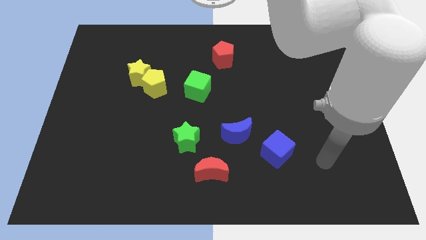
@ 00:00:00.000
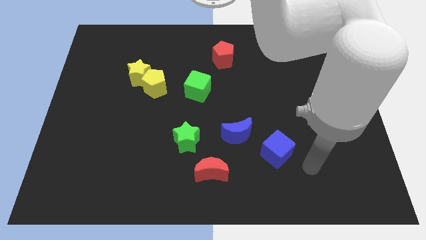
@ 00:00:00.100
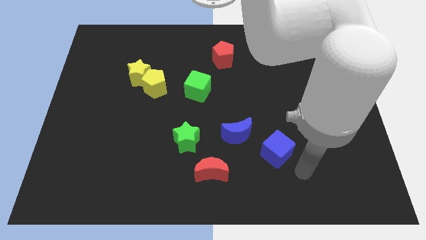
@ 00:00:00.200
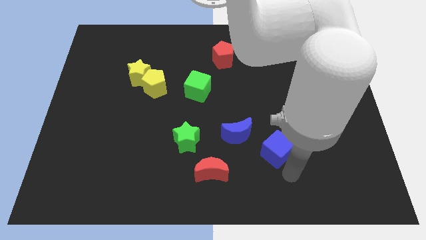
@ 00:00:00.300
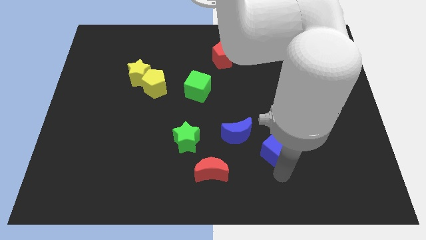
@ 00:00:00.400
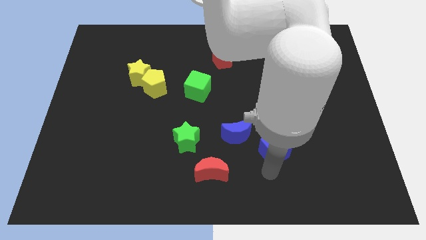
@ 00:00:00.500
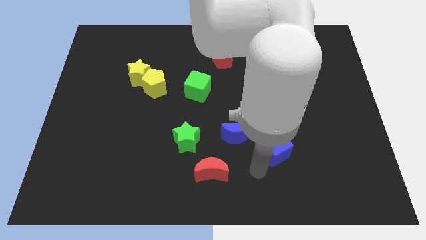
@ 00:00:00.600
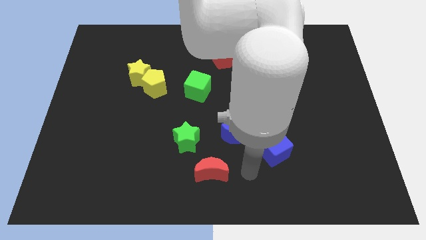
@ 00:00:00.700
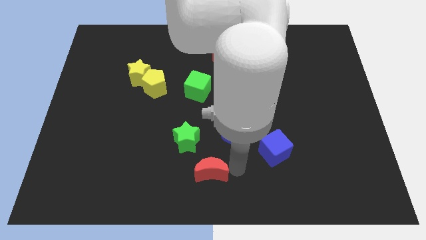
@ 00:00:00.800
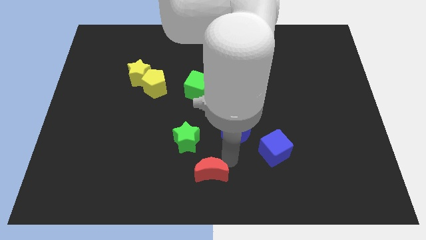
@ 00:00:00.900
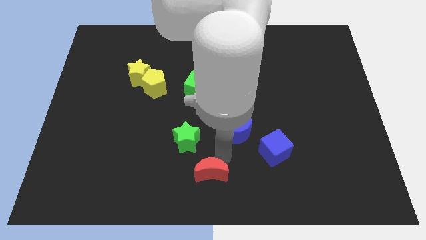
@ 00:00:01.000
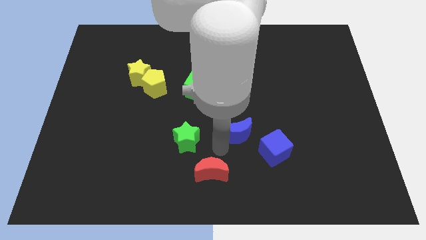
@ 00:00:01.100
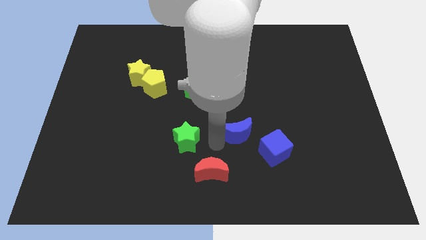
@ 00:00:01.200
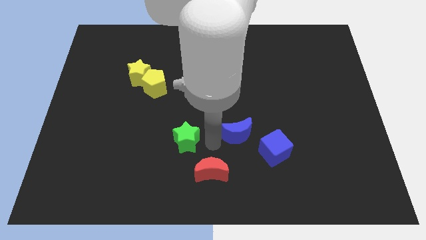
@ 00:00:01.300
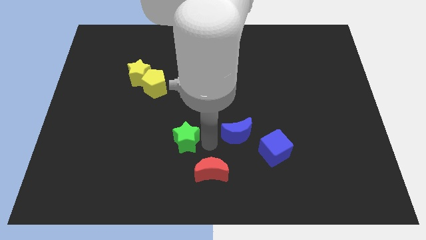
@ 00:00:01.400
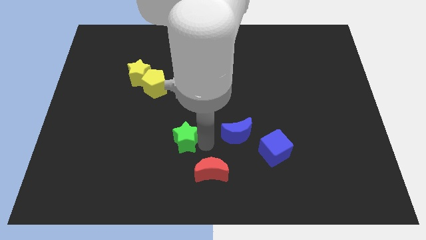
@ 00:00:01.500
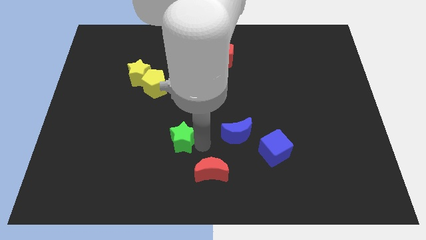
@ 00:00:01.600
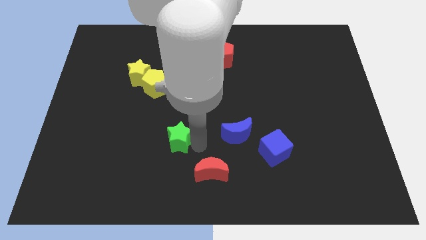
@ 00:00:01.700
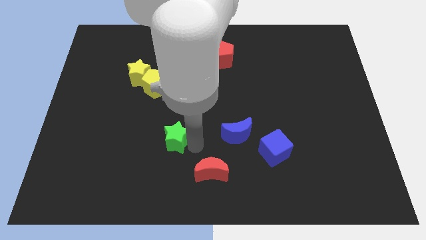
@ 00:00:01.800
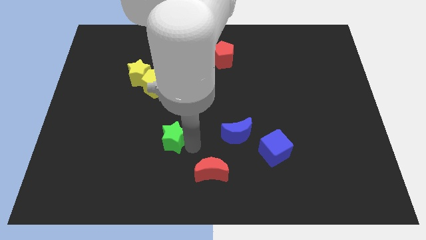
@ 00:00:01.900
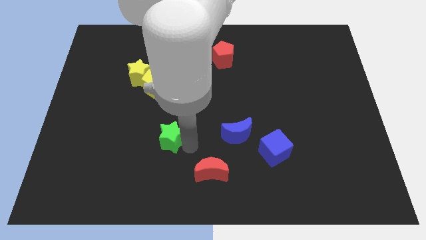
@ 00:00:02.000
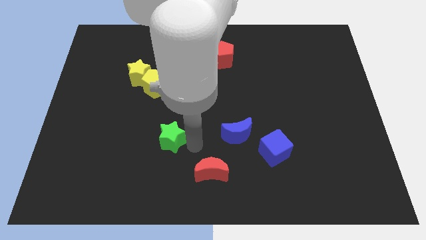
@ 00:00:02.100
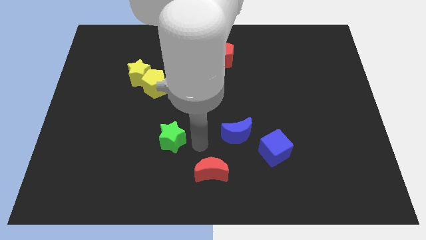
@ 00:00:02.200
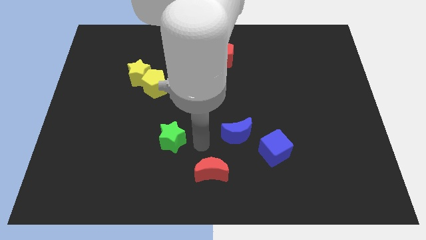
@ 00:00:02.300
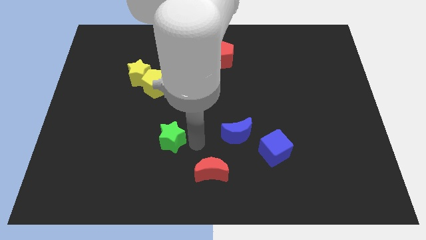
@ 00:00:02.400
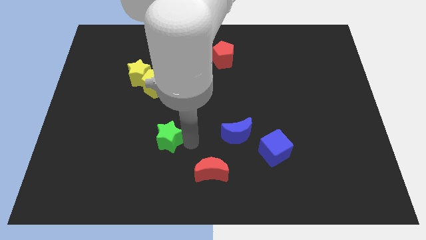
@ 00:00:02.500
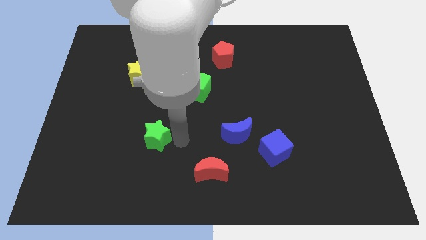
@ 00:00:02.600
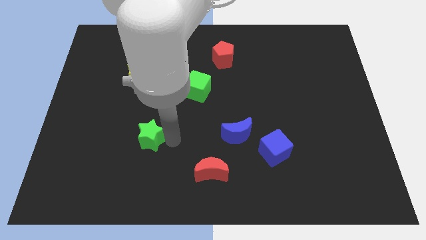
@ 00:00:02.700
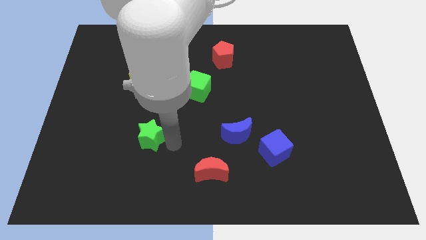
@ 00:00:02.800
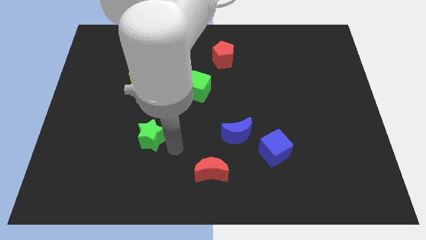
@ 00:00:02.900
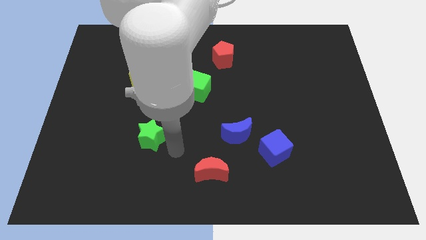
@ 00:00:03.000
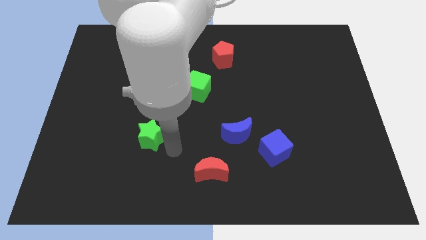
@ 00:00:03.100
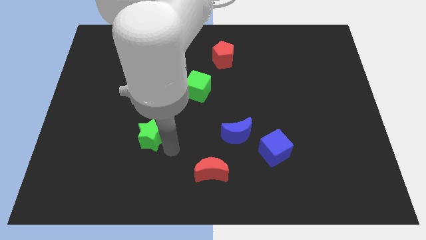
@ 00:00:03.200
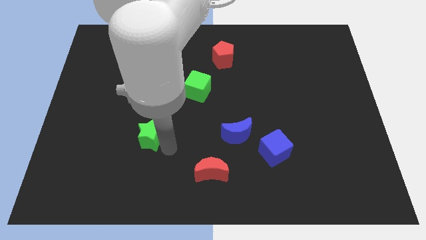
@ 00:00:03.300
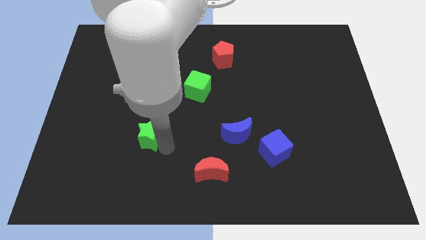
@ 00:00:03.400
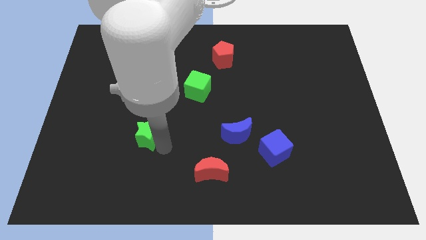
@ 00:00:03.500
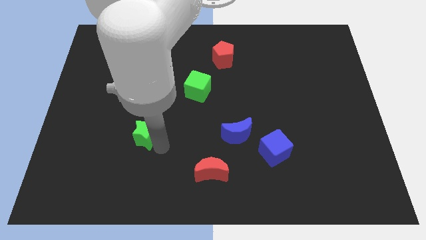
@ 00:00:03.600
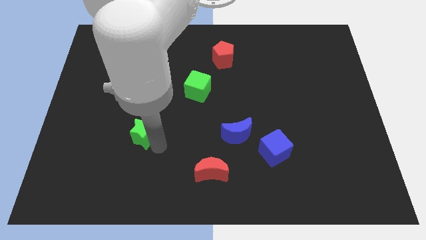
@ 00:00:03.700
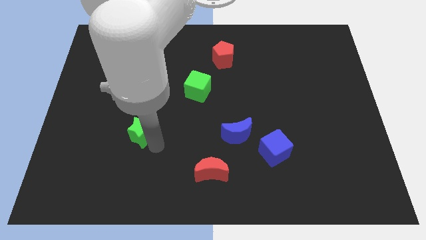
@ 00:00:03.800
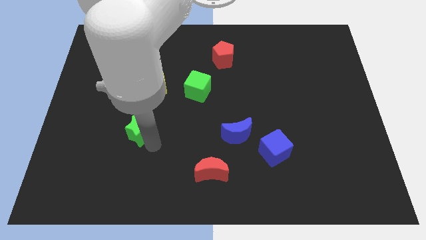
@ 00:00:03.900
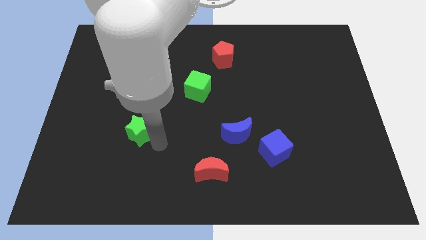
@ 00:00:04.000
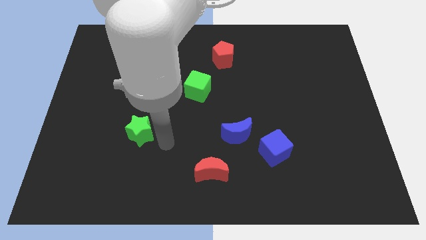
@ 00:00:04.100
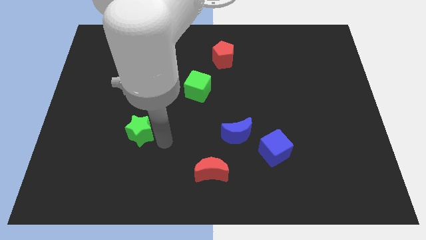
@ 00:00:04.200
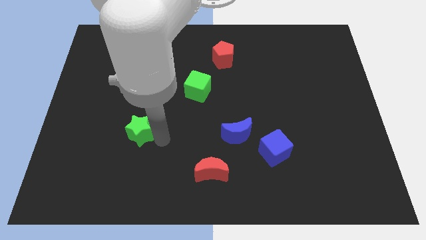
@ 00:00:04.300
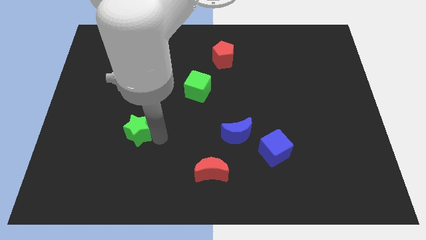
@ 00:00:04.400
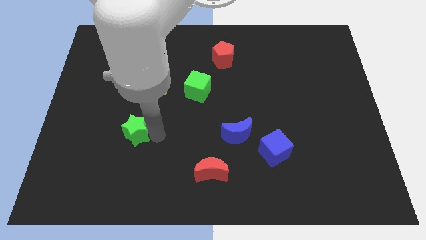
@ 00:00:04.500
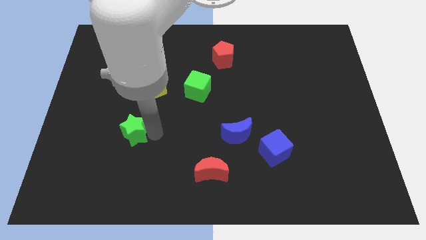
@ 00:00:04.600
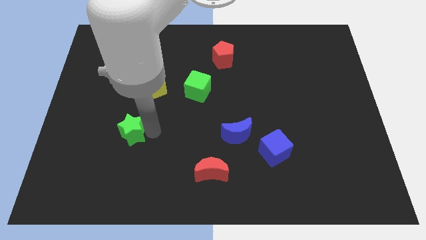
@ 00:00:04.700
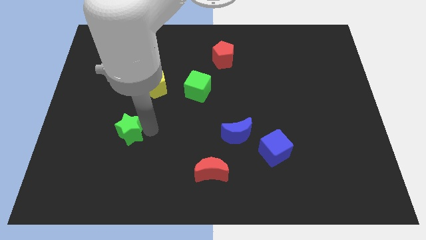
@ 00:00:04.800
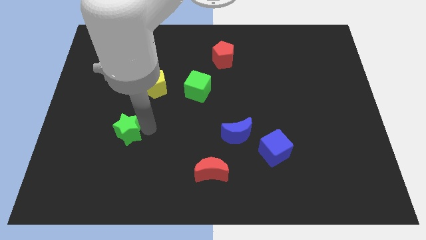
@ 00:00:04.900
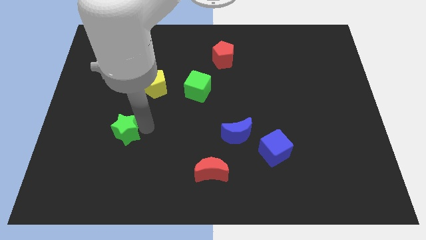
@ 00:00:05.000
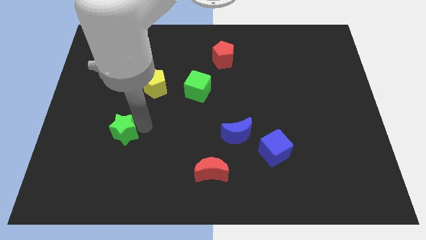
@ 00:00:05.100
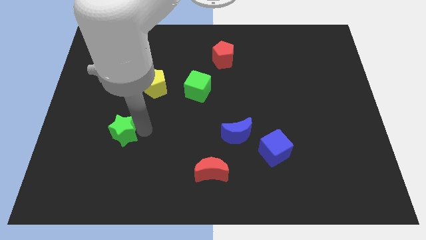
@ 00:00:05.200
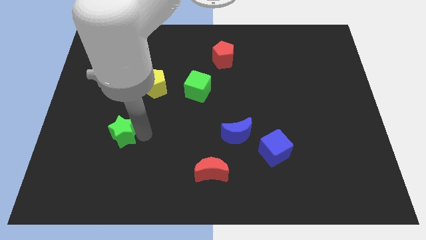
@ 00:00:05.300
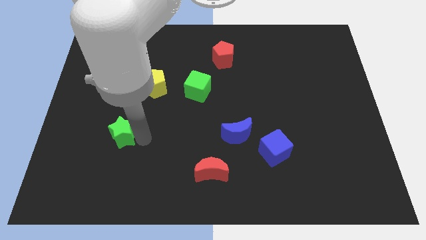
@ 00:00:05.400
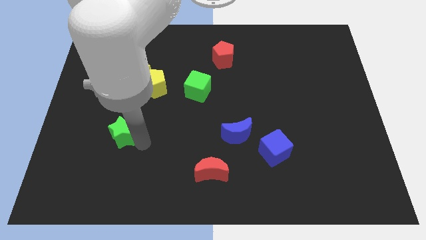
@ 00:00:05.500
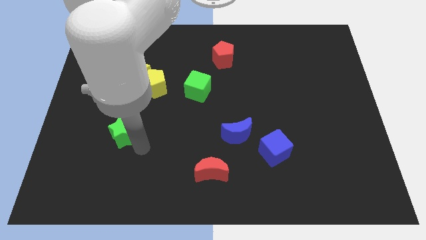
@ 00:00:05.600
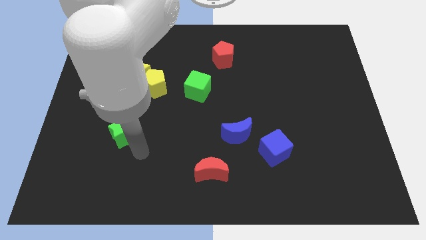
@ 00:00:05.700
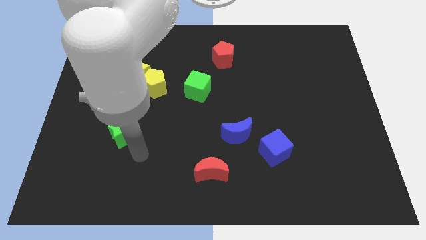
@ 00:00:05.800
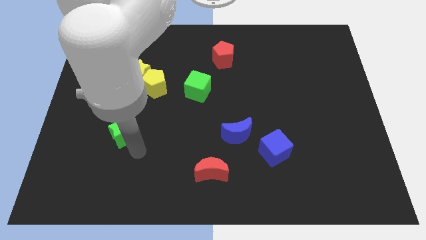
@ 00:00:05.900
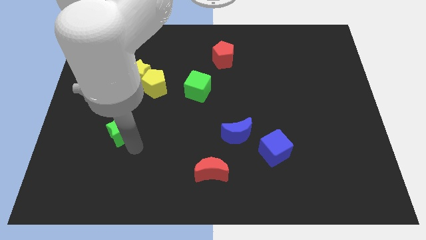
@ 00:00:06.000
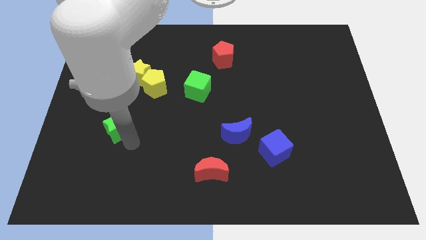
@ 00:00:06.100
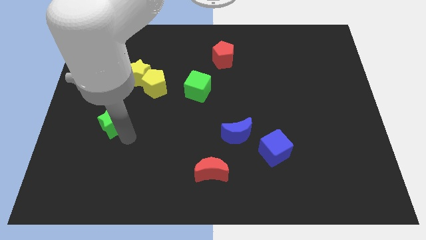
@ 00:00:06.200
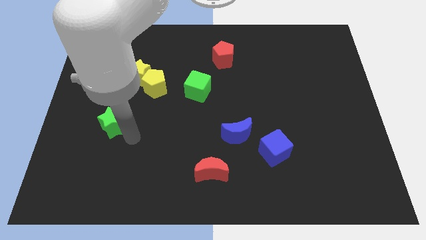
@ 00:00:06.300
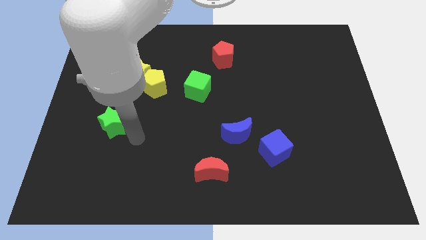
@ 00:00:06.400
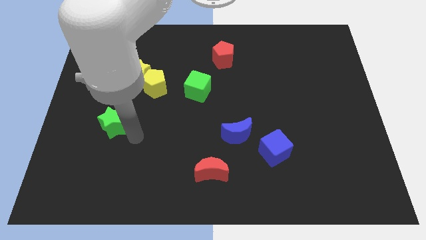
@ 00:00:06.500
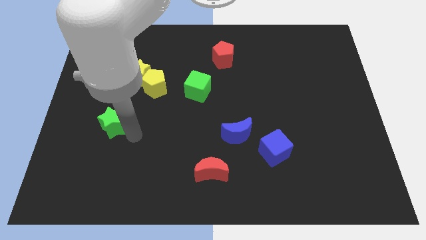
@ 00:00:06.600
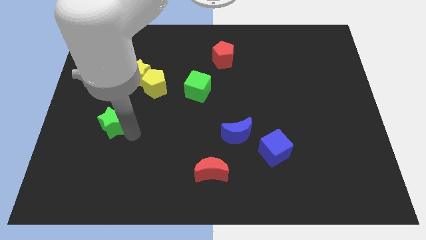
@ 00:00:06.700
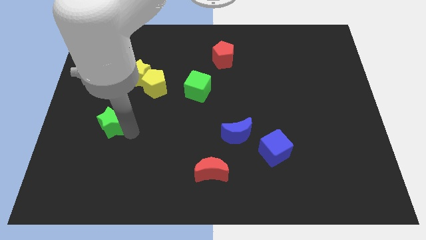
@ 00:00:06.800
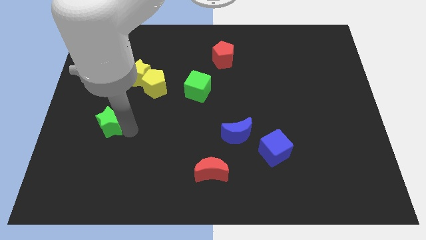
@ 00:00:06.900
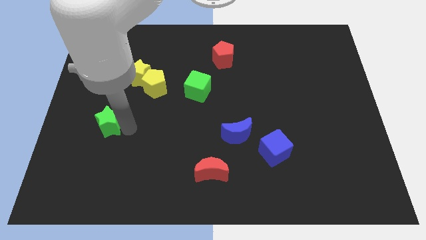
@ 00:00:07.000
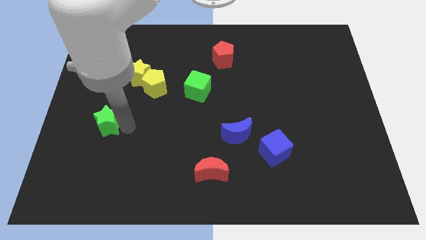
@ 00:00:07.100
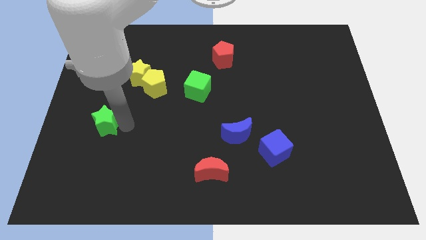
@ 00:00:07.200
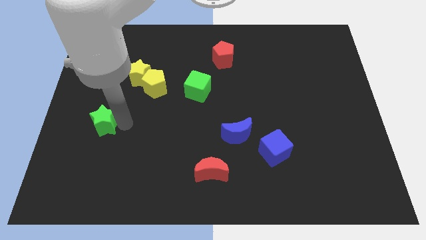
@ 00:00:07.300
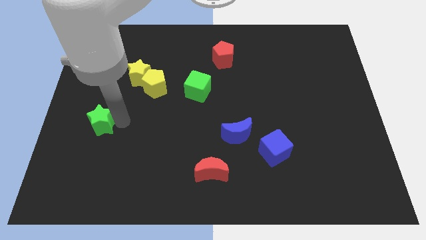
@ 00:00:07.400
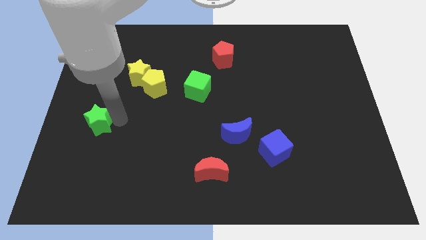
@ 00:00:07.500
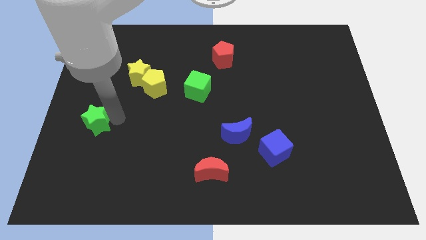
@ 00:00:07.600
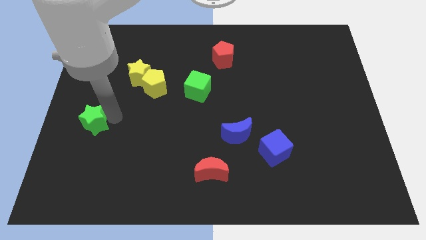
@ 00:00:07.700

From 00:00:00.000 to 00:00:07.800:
put the green star to the left side of the board
